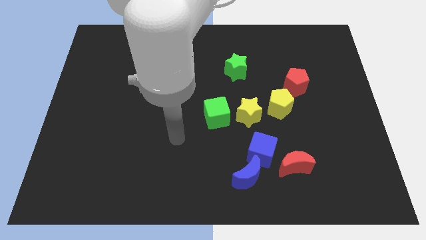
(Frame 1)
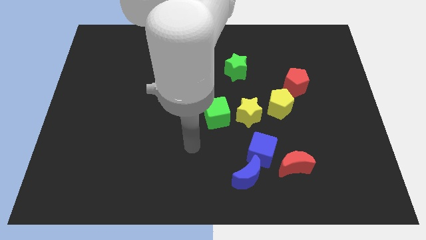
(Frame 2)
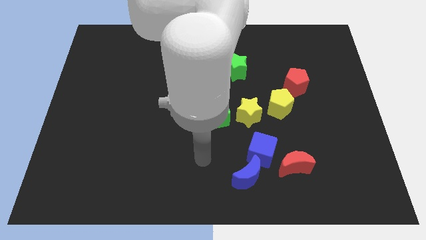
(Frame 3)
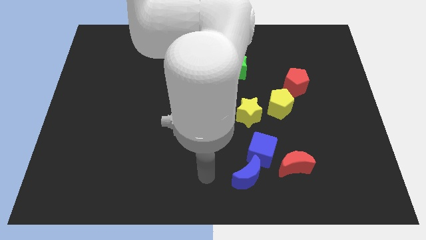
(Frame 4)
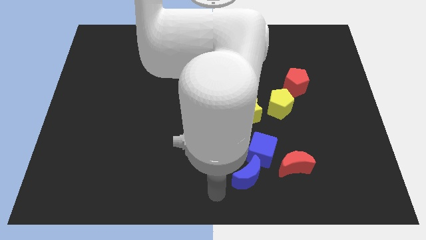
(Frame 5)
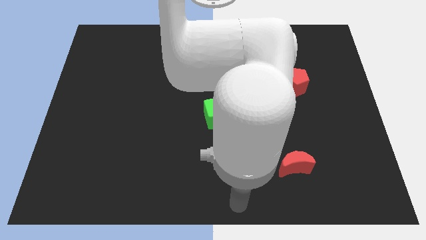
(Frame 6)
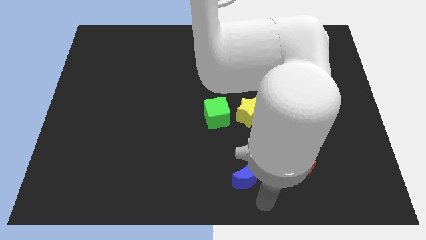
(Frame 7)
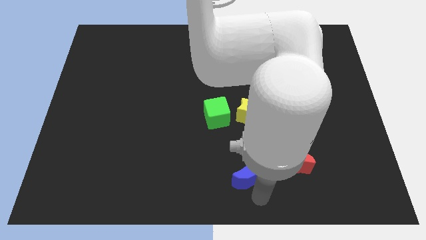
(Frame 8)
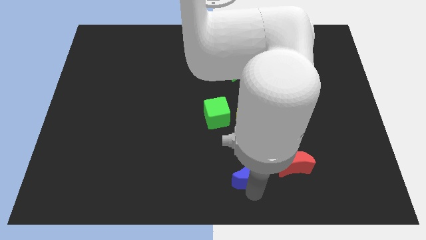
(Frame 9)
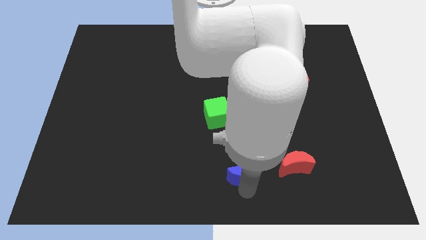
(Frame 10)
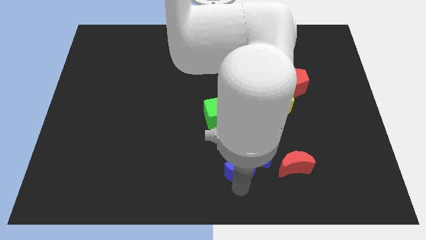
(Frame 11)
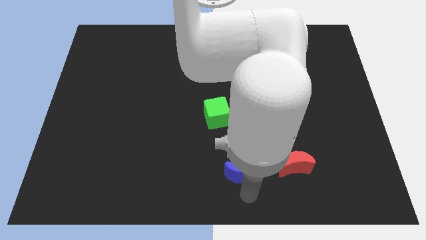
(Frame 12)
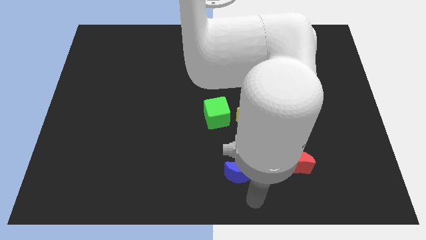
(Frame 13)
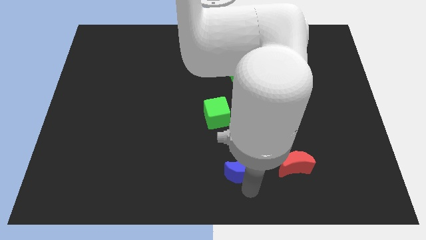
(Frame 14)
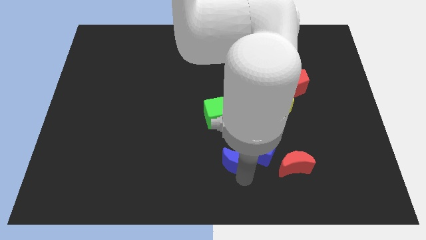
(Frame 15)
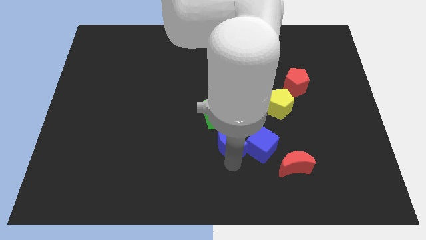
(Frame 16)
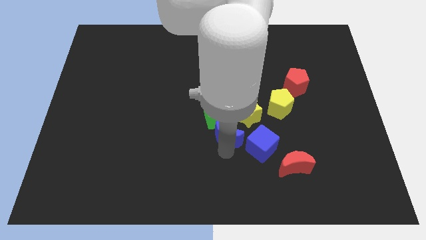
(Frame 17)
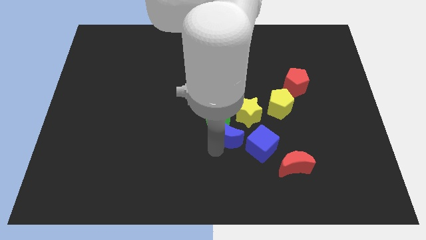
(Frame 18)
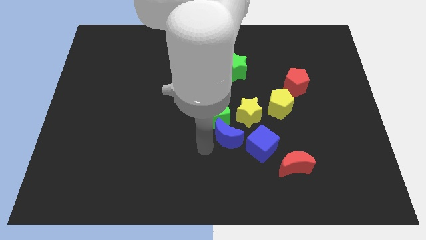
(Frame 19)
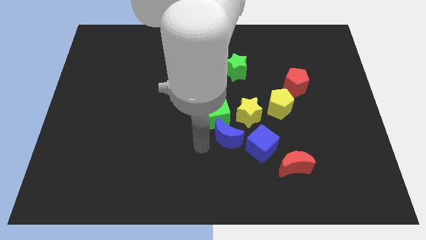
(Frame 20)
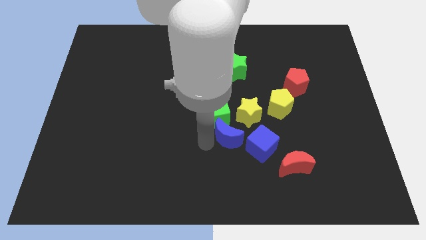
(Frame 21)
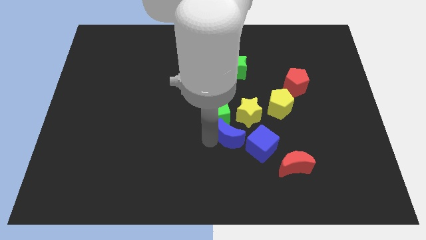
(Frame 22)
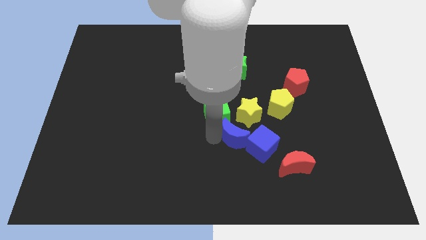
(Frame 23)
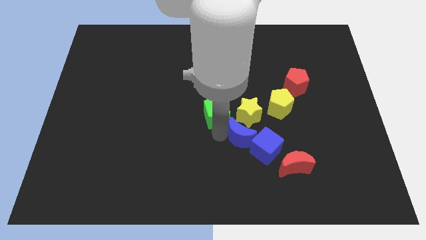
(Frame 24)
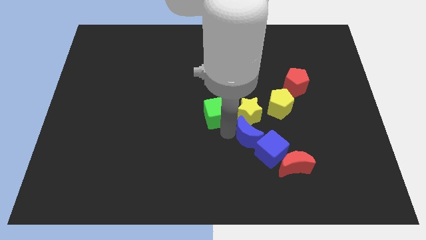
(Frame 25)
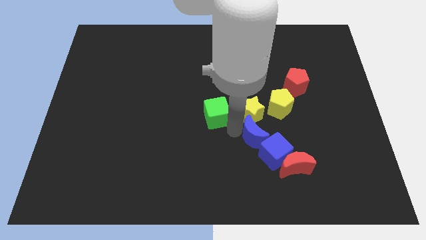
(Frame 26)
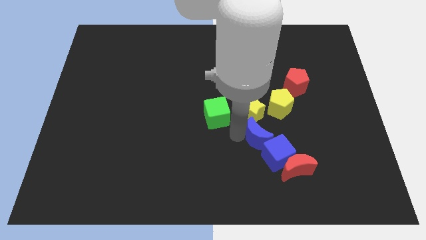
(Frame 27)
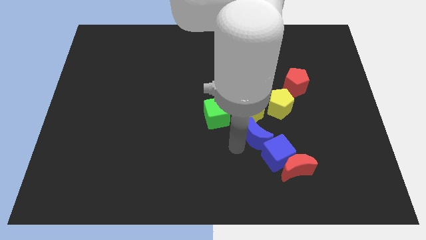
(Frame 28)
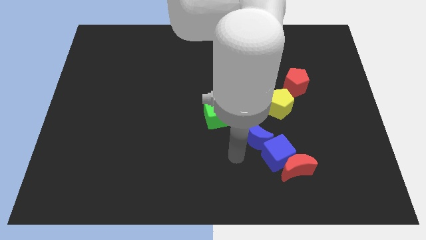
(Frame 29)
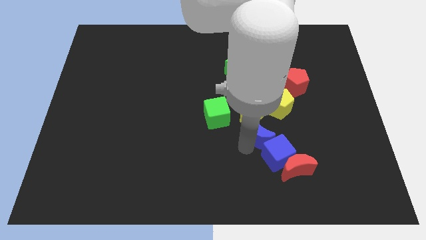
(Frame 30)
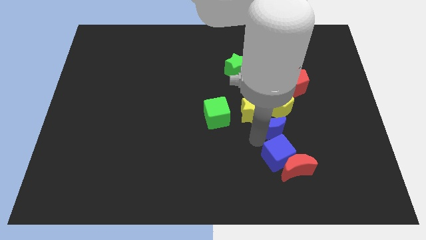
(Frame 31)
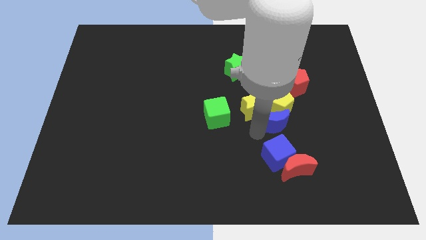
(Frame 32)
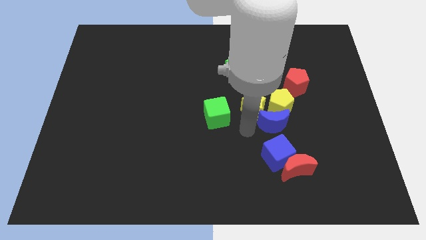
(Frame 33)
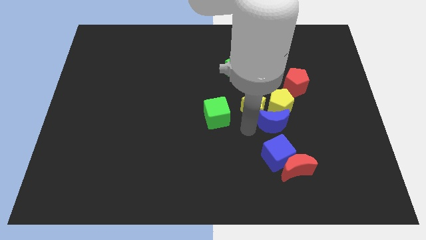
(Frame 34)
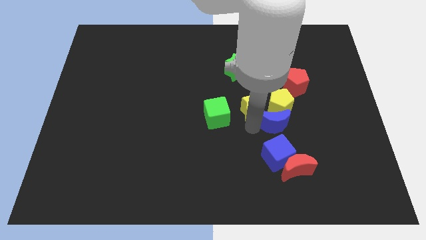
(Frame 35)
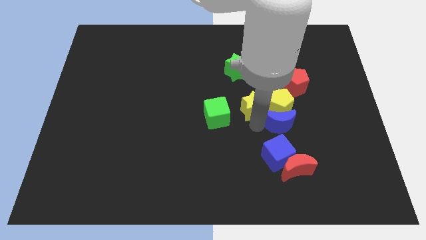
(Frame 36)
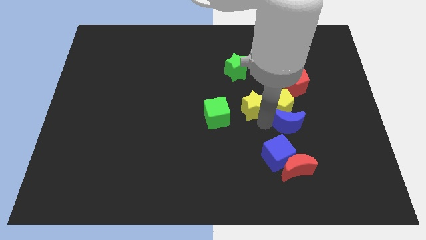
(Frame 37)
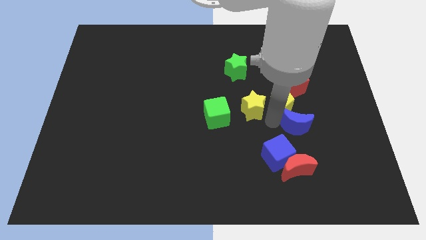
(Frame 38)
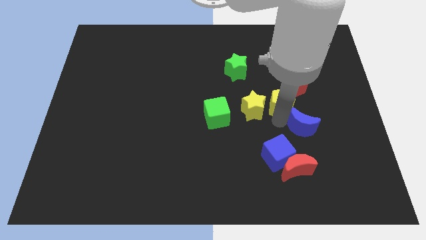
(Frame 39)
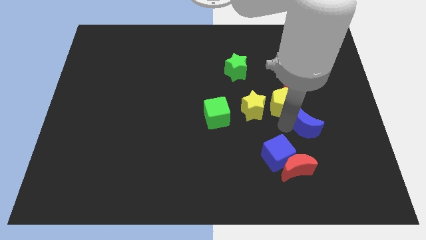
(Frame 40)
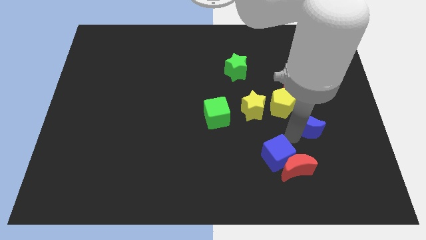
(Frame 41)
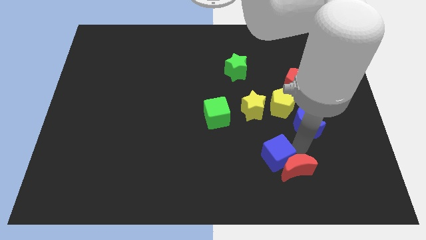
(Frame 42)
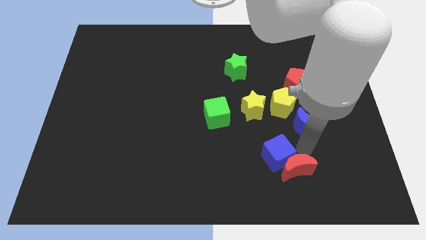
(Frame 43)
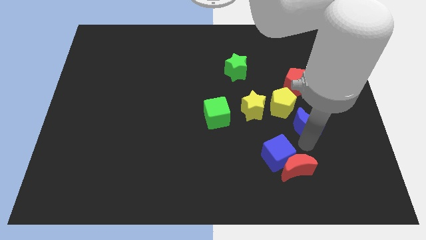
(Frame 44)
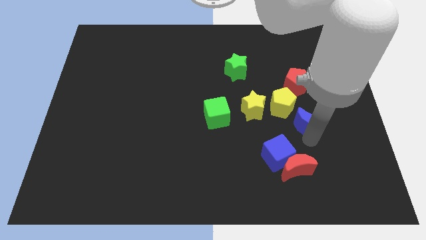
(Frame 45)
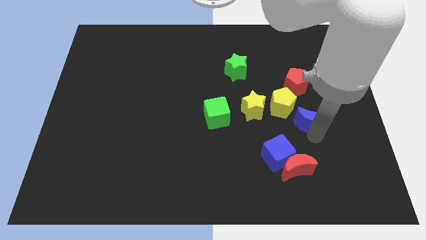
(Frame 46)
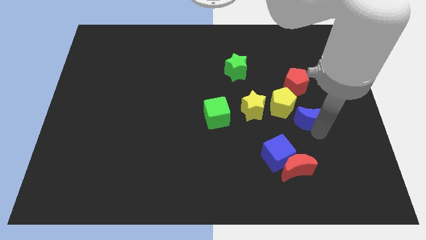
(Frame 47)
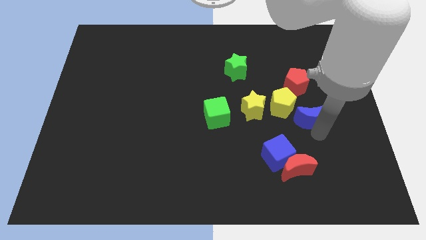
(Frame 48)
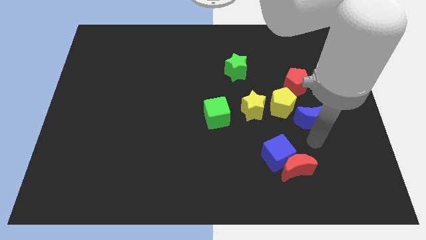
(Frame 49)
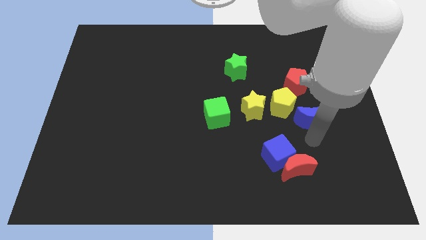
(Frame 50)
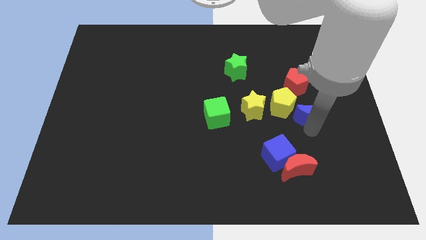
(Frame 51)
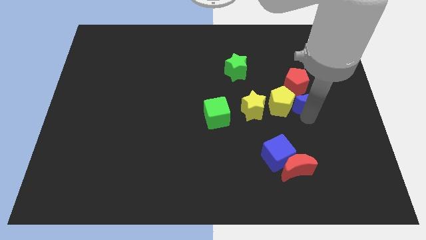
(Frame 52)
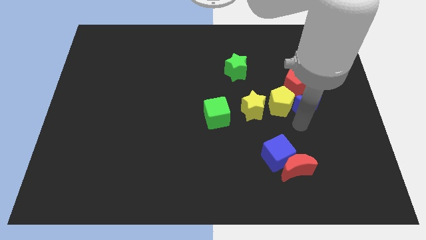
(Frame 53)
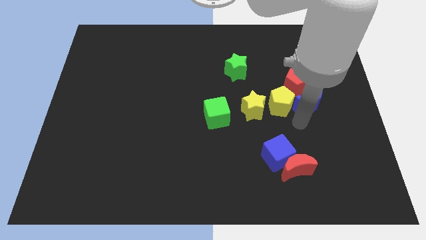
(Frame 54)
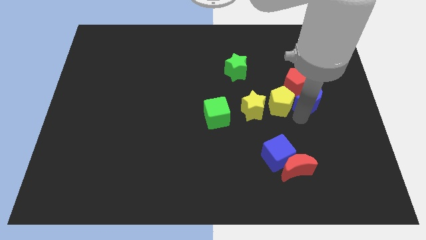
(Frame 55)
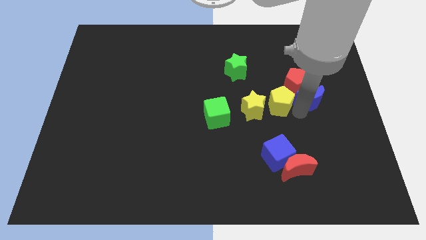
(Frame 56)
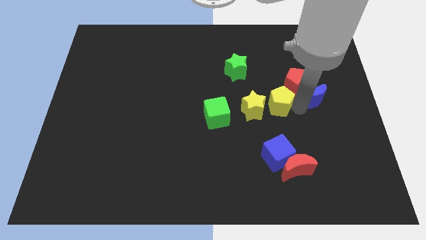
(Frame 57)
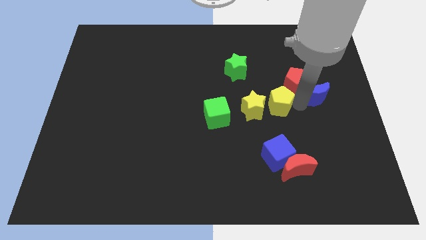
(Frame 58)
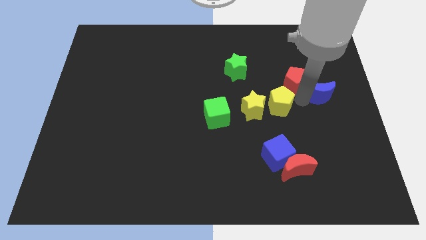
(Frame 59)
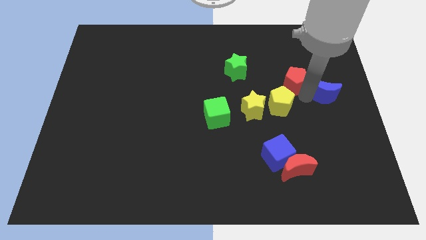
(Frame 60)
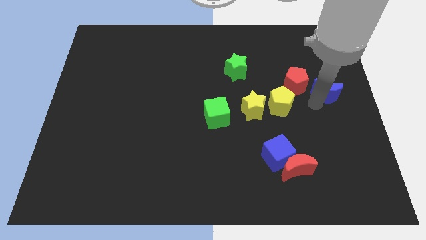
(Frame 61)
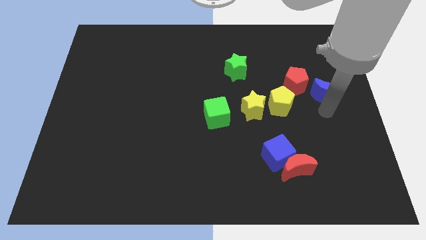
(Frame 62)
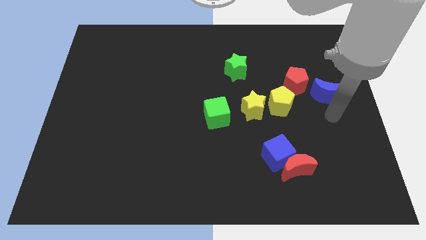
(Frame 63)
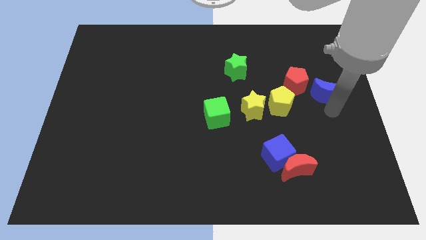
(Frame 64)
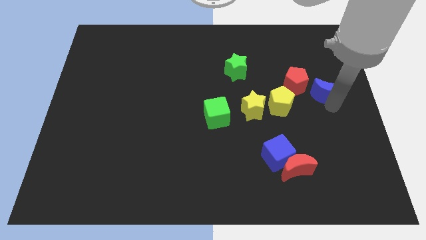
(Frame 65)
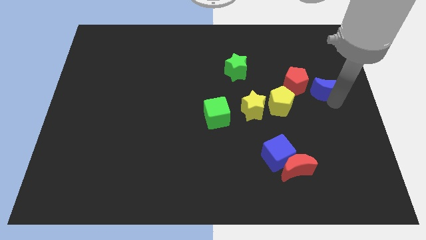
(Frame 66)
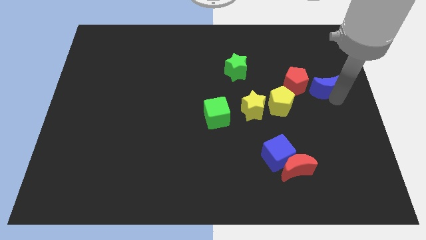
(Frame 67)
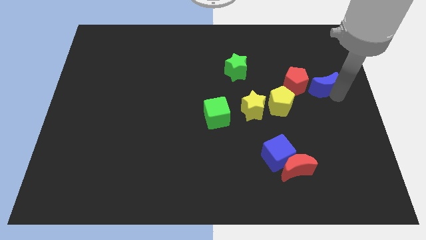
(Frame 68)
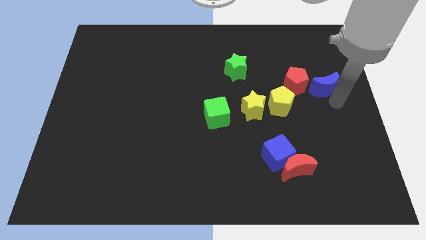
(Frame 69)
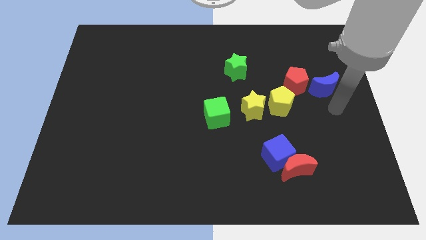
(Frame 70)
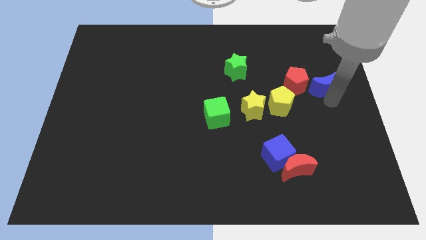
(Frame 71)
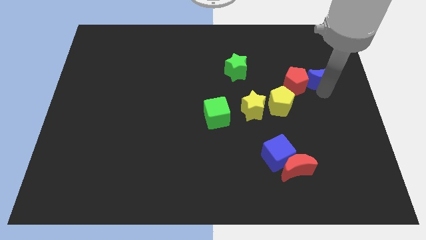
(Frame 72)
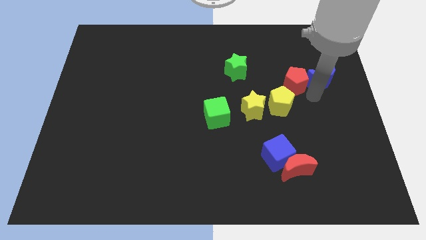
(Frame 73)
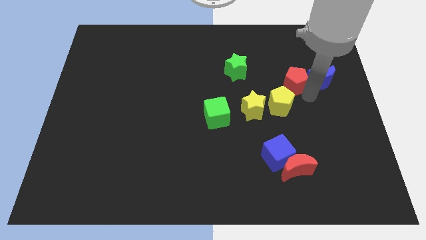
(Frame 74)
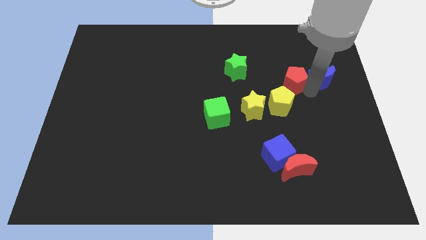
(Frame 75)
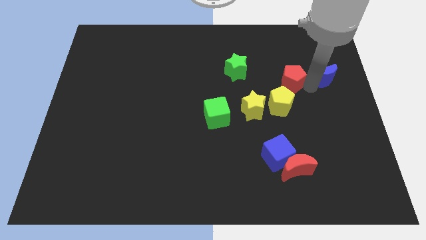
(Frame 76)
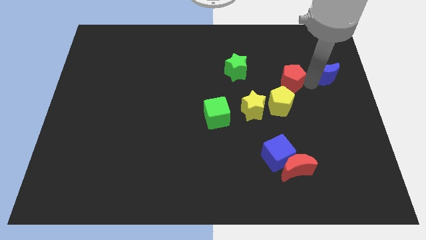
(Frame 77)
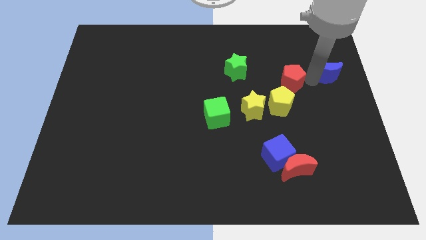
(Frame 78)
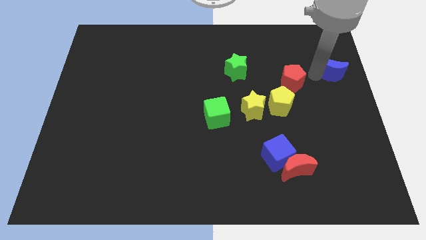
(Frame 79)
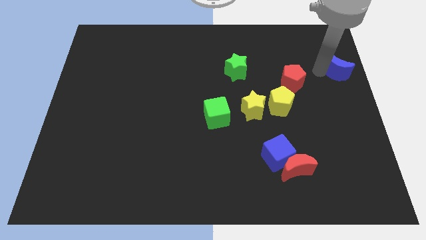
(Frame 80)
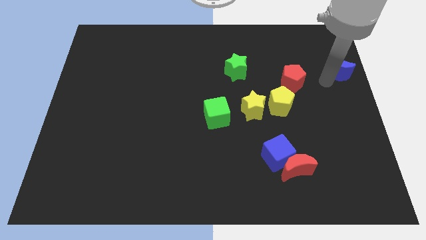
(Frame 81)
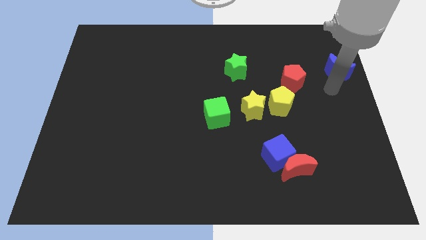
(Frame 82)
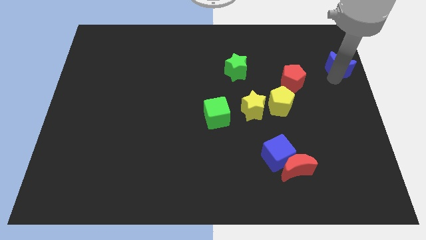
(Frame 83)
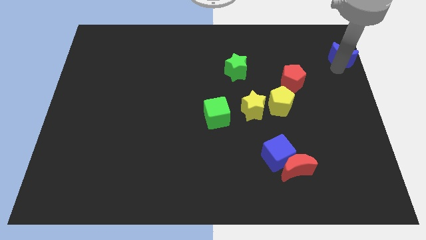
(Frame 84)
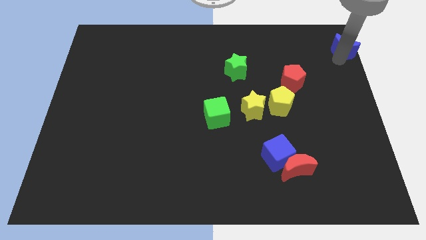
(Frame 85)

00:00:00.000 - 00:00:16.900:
move the blue moon to the top right of the board
